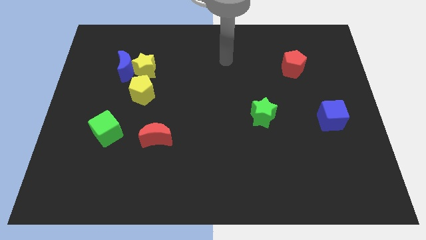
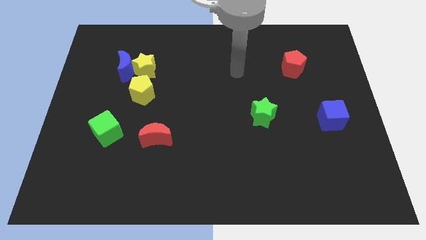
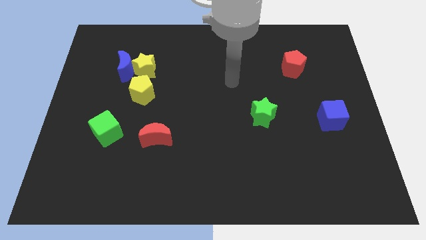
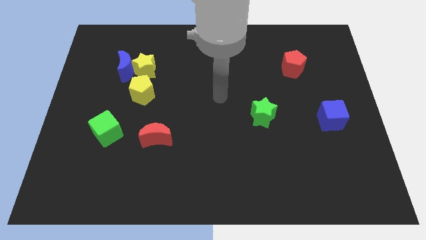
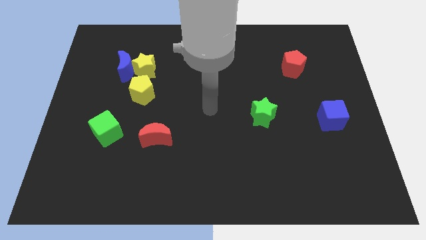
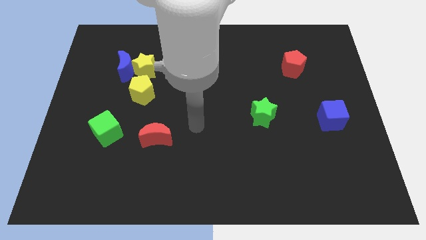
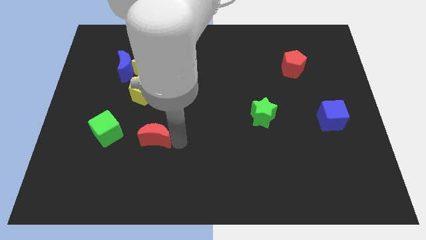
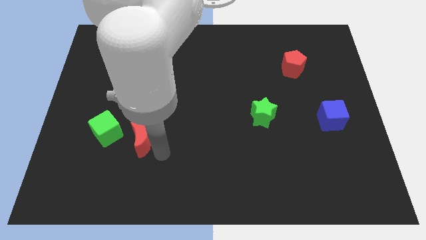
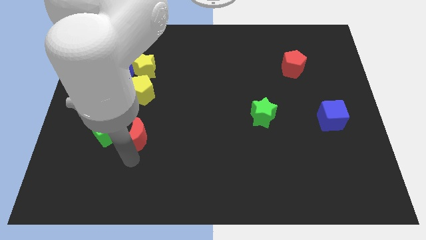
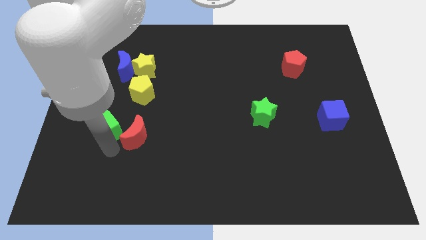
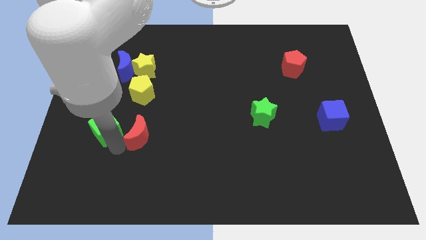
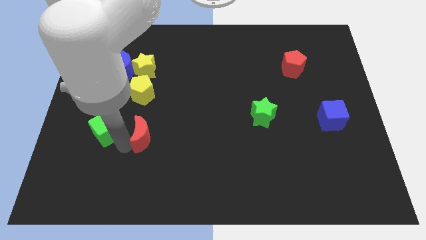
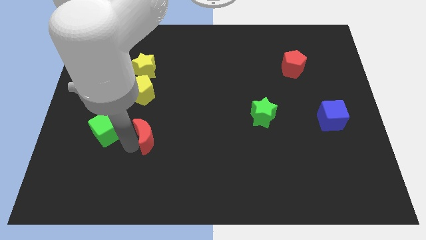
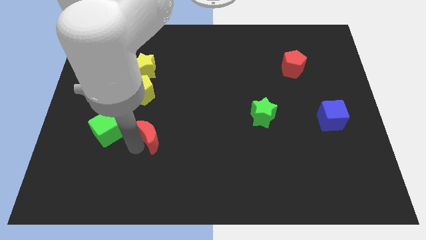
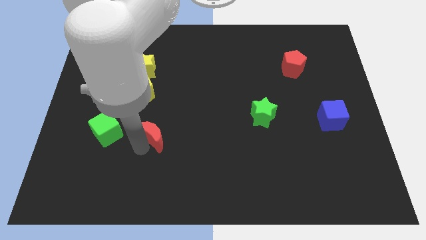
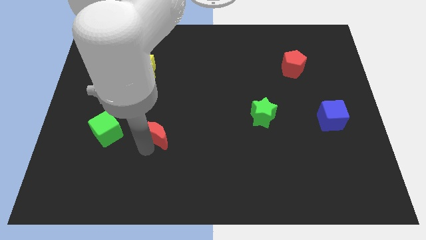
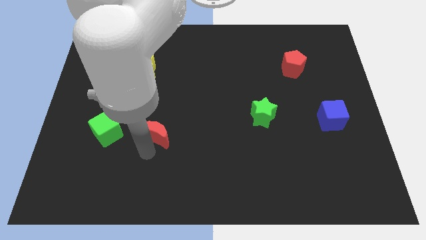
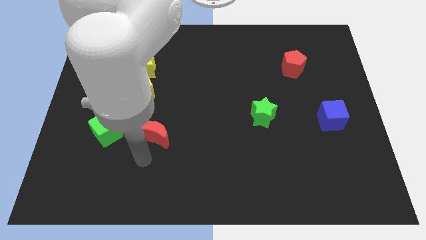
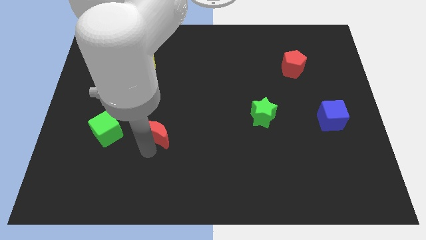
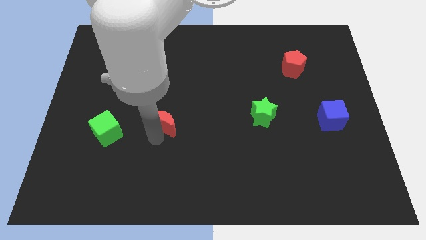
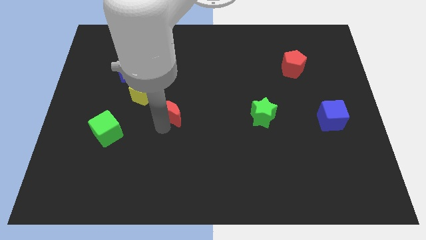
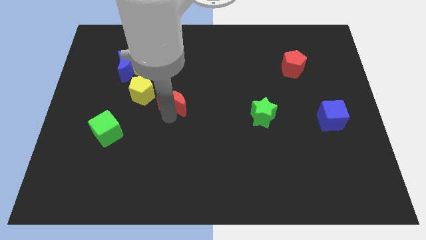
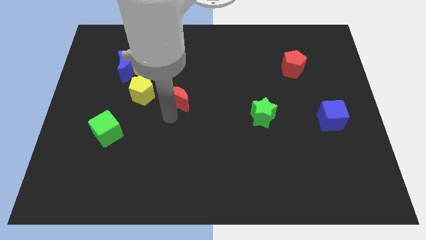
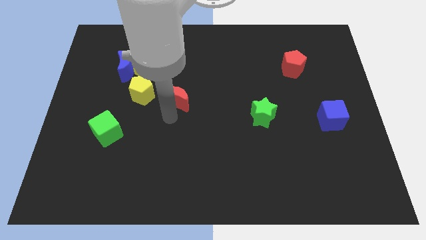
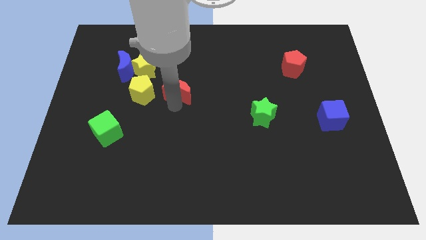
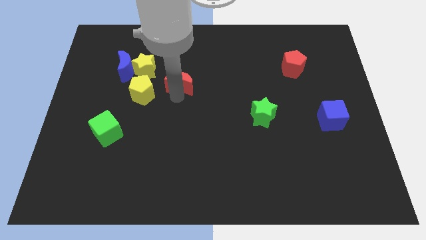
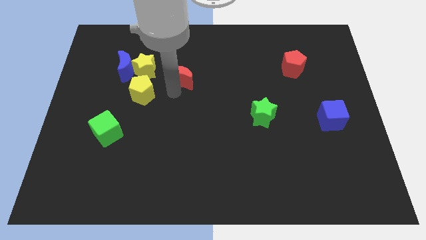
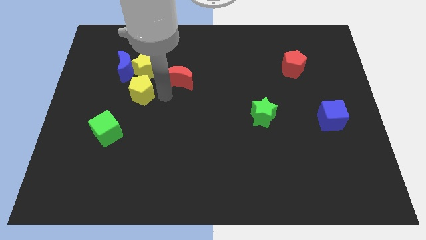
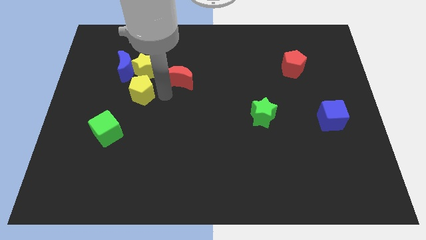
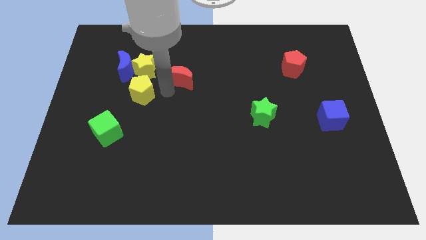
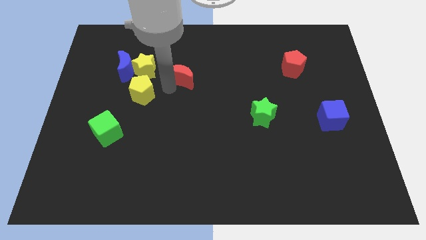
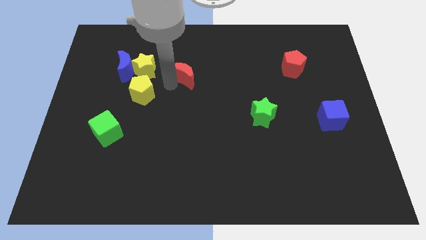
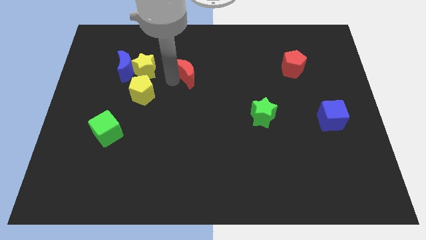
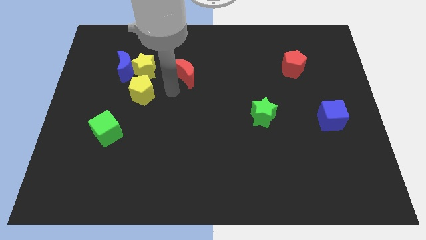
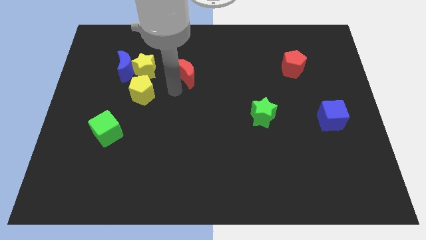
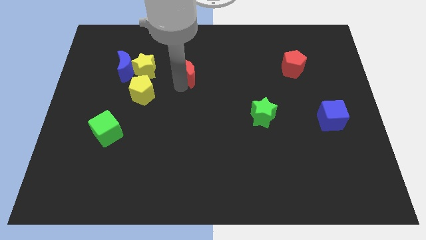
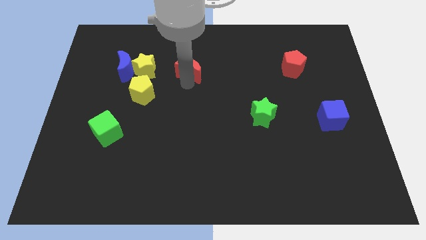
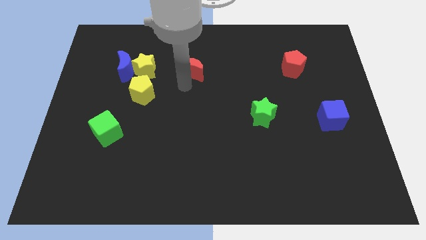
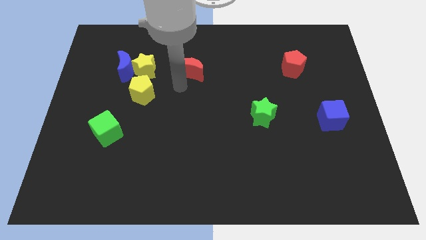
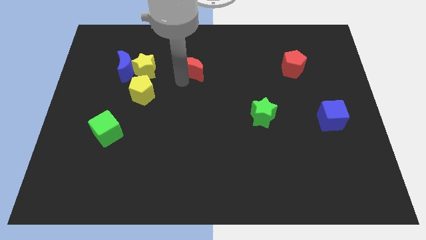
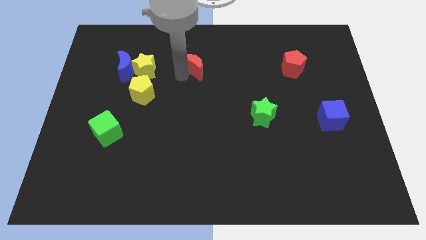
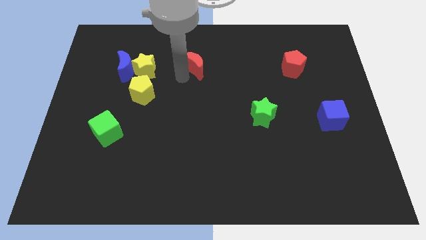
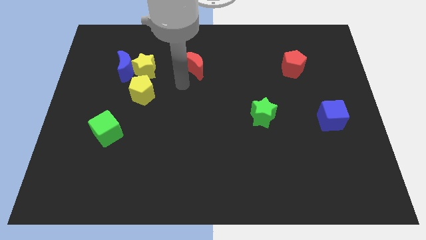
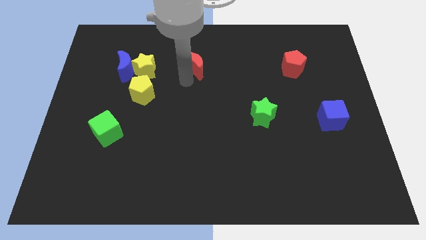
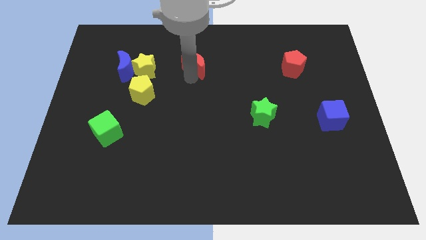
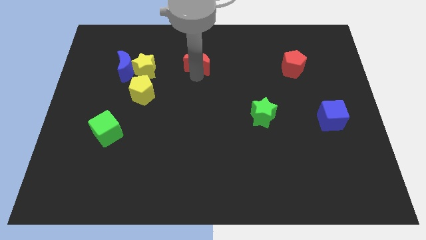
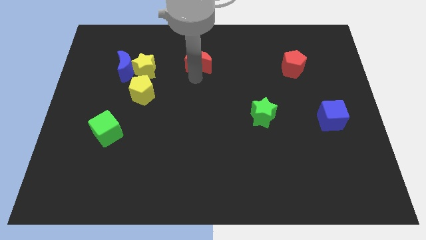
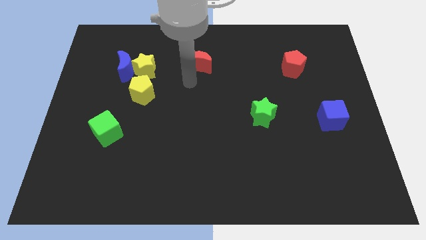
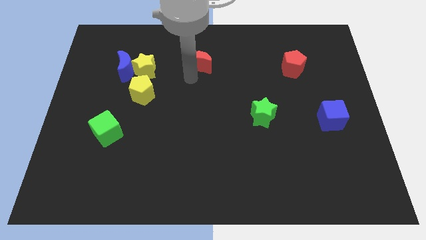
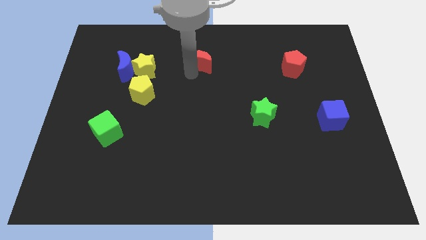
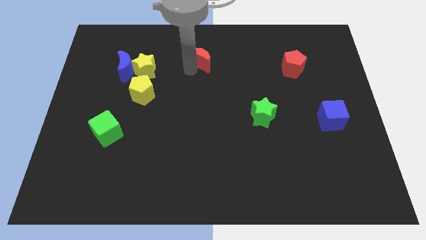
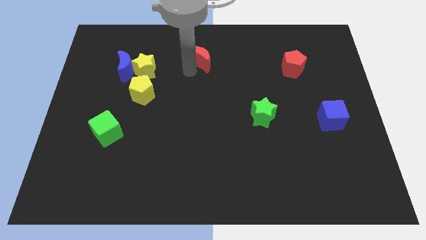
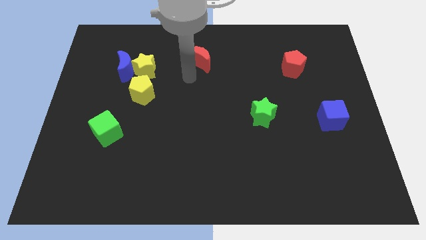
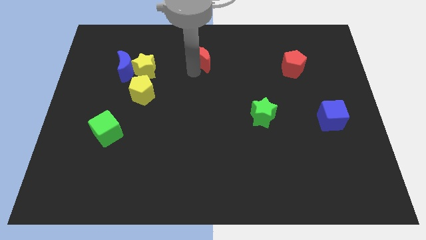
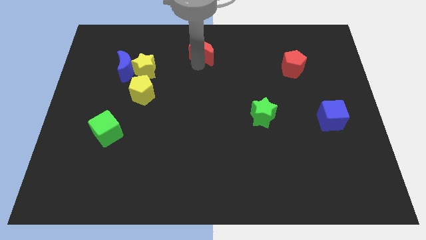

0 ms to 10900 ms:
push the red moon to the top
